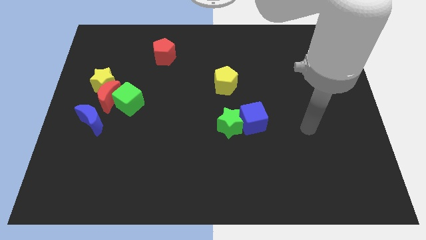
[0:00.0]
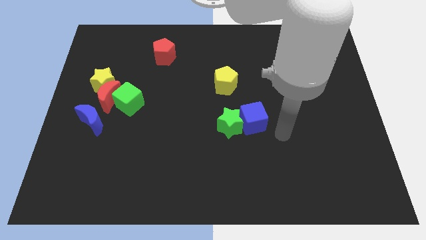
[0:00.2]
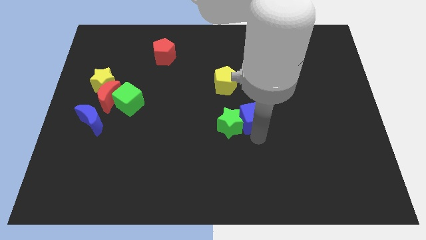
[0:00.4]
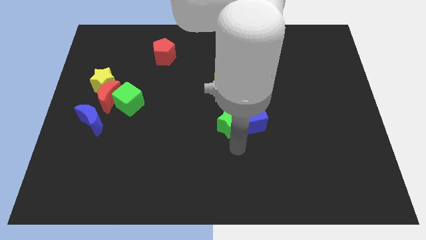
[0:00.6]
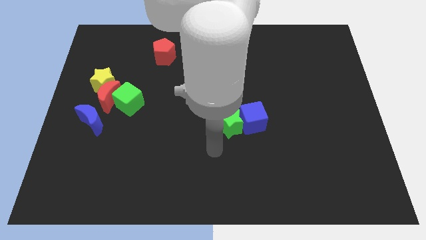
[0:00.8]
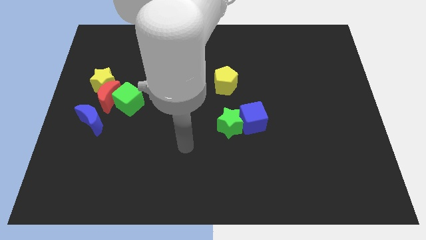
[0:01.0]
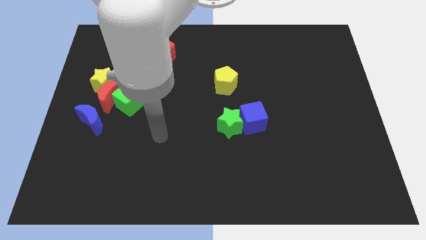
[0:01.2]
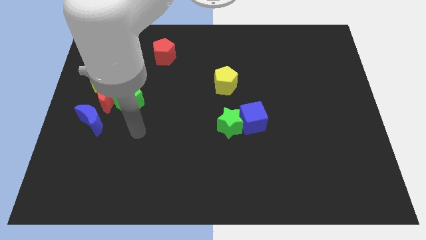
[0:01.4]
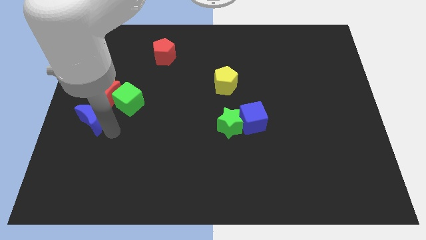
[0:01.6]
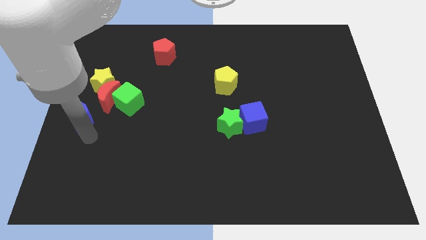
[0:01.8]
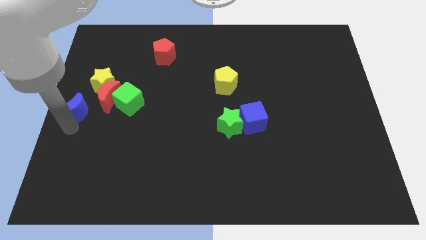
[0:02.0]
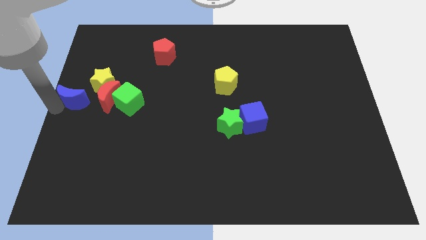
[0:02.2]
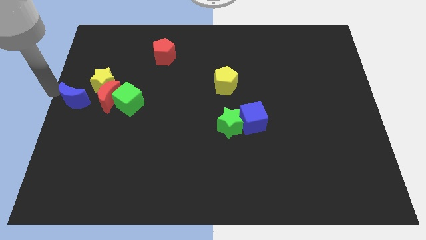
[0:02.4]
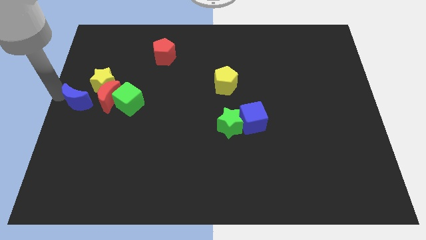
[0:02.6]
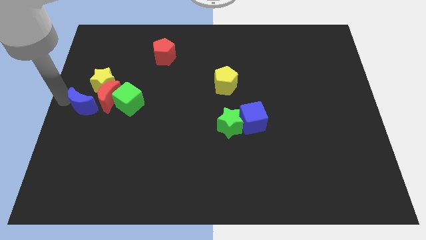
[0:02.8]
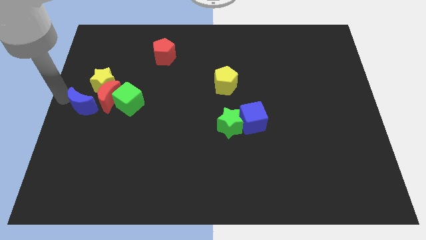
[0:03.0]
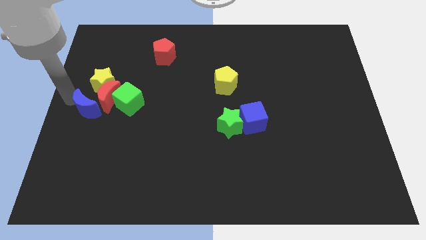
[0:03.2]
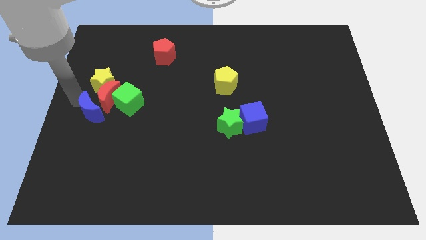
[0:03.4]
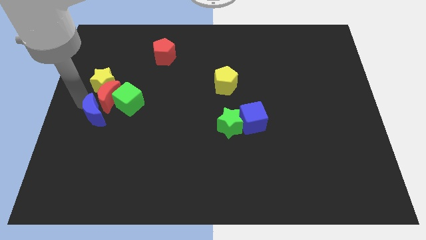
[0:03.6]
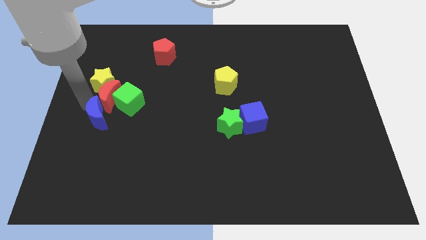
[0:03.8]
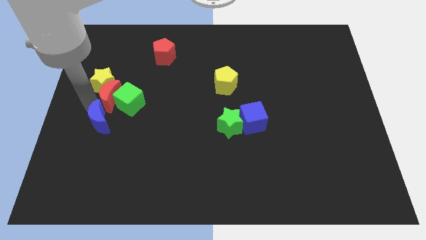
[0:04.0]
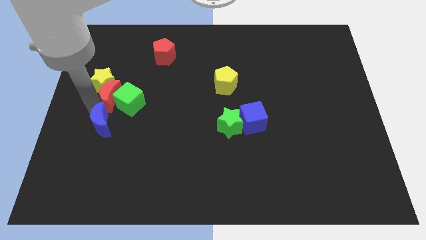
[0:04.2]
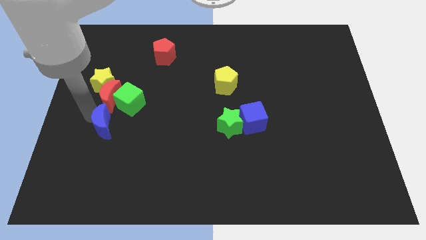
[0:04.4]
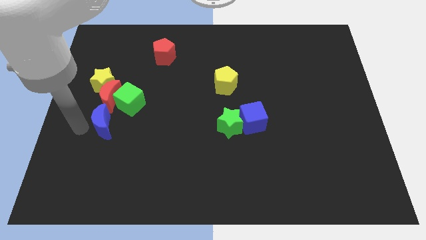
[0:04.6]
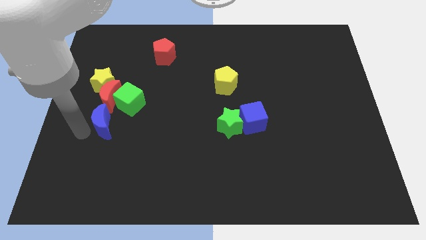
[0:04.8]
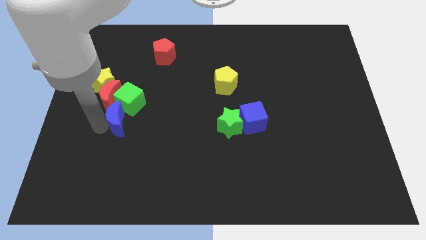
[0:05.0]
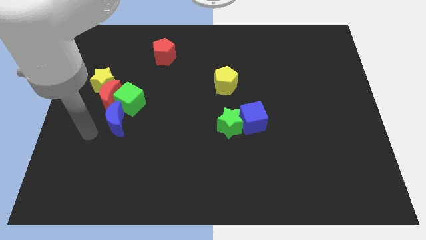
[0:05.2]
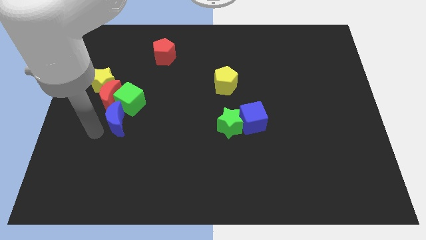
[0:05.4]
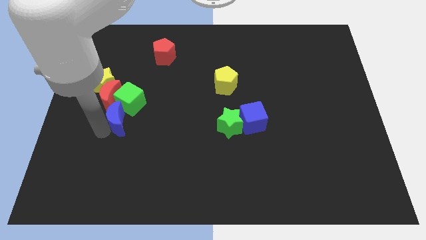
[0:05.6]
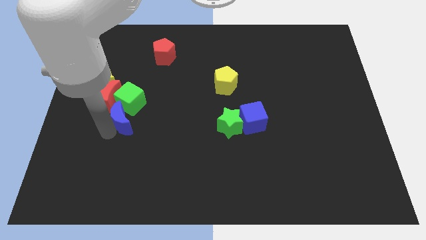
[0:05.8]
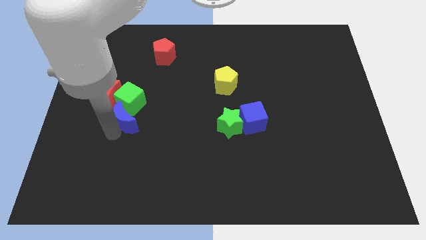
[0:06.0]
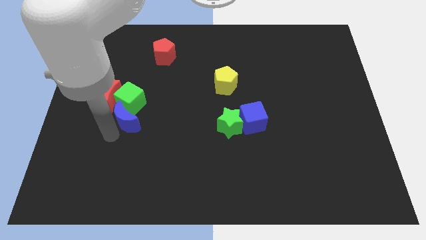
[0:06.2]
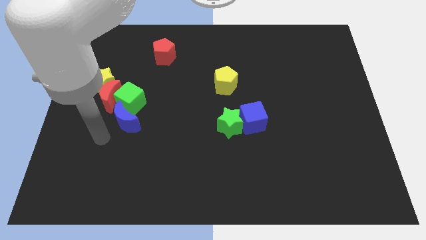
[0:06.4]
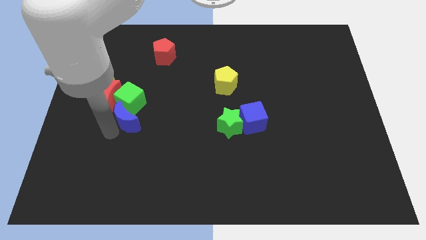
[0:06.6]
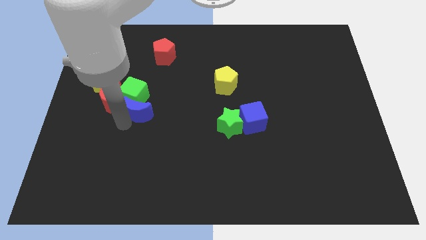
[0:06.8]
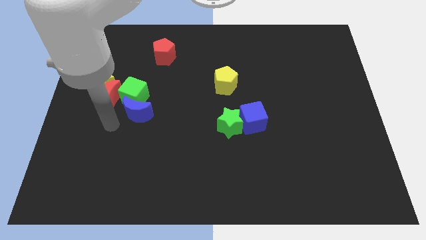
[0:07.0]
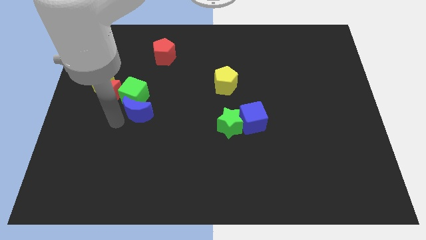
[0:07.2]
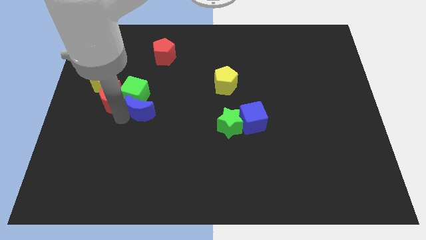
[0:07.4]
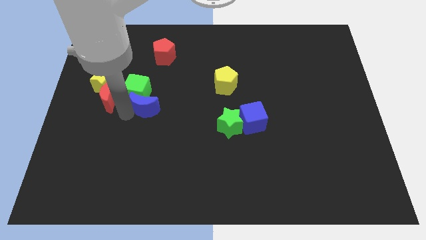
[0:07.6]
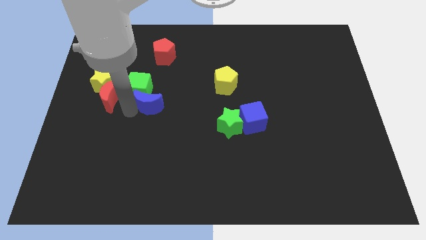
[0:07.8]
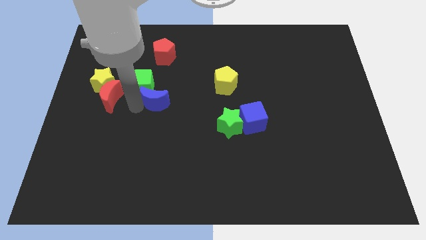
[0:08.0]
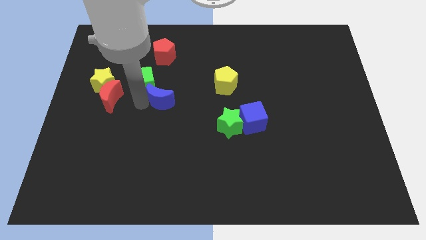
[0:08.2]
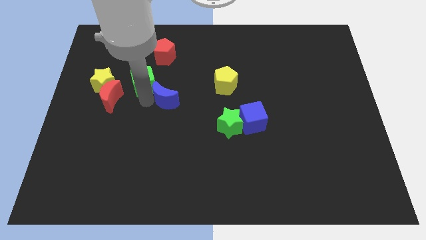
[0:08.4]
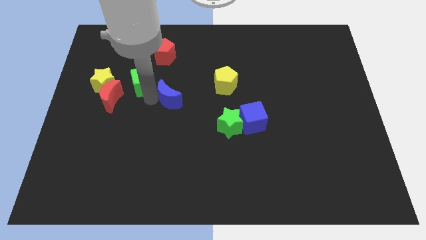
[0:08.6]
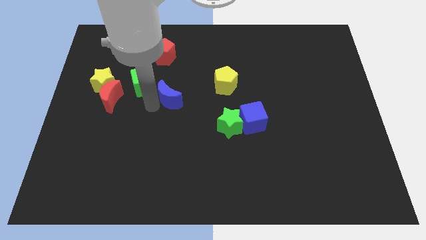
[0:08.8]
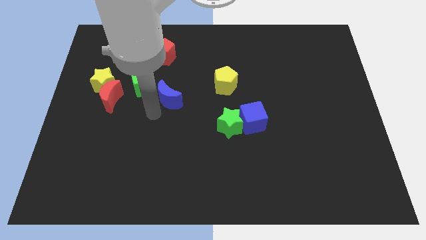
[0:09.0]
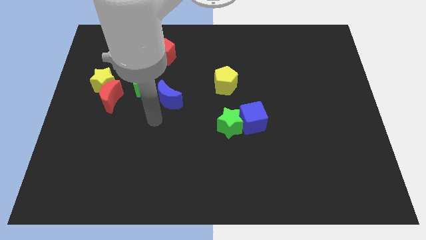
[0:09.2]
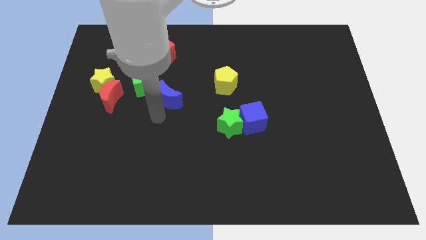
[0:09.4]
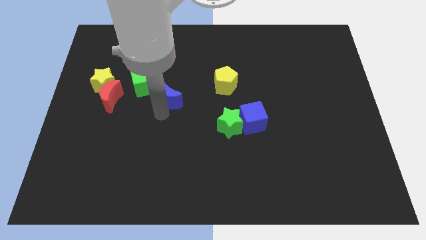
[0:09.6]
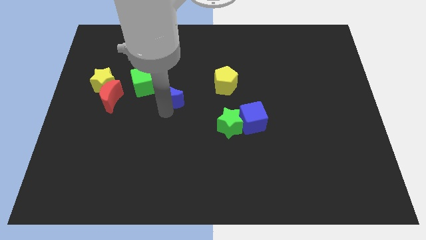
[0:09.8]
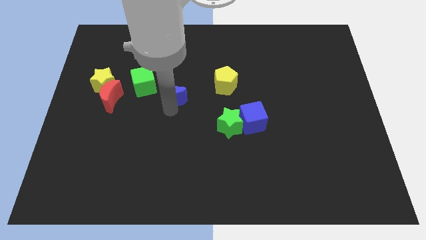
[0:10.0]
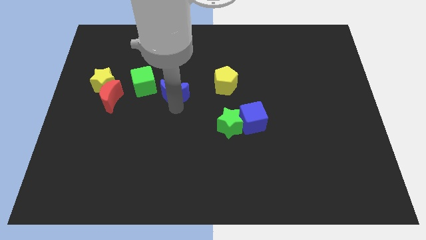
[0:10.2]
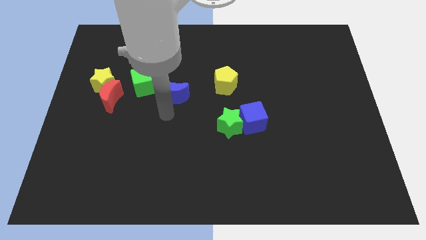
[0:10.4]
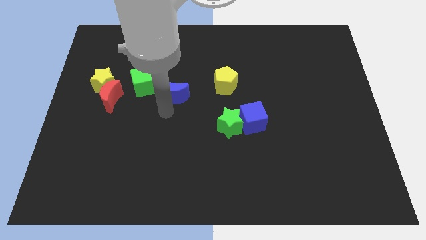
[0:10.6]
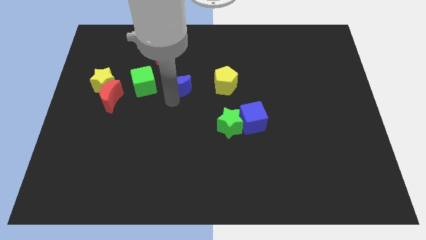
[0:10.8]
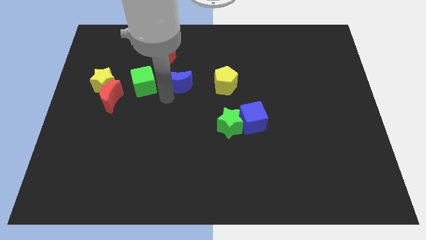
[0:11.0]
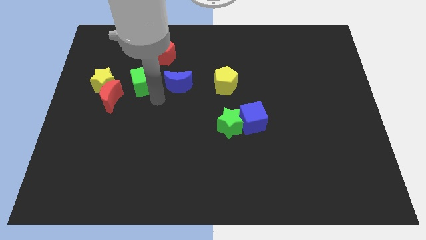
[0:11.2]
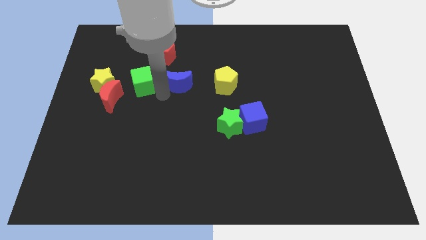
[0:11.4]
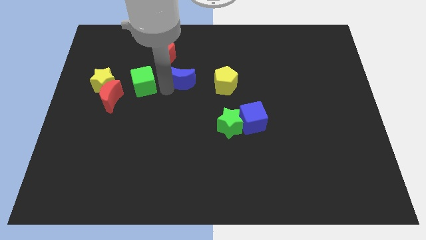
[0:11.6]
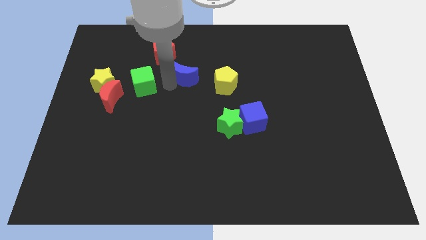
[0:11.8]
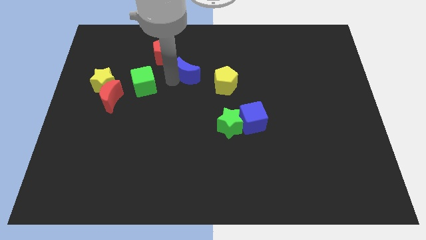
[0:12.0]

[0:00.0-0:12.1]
slide the blue moon to the top left of the yellow pentagon
